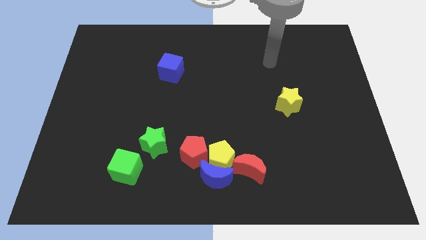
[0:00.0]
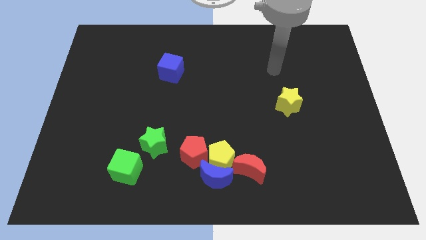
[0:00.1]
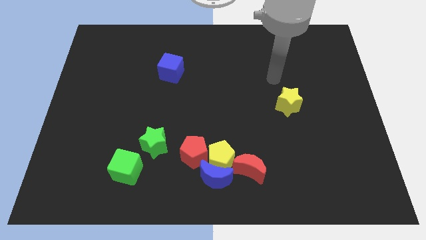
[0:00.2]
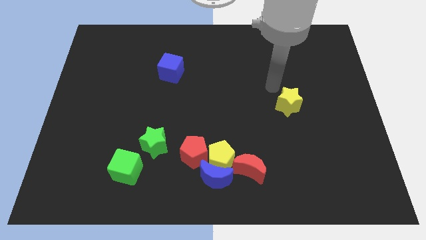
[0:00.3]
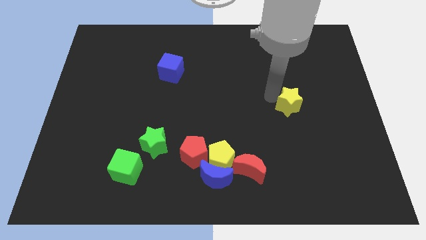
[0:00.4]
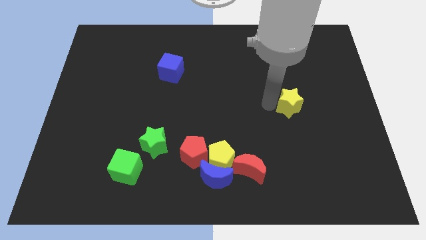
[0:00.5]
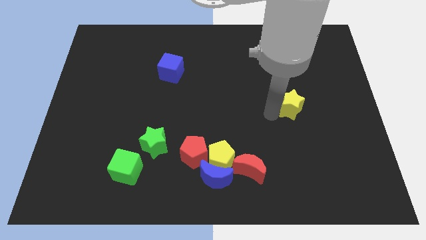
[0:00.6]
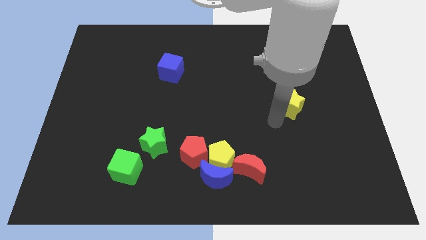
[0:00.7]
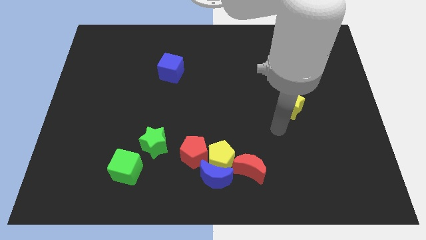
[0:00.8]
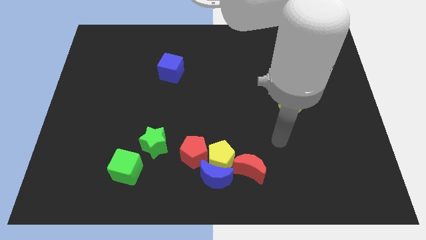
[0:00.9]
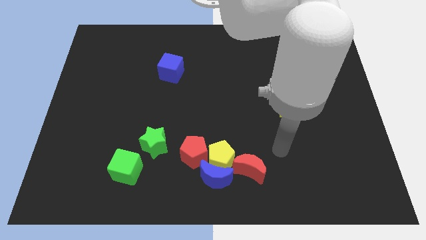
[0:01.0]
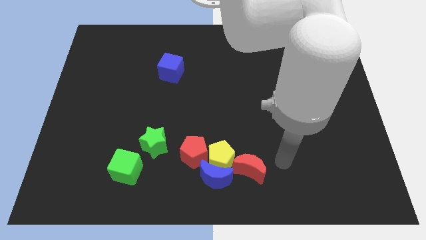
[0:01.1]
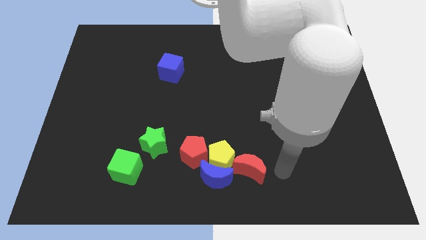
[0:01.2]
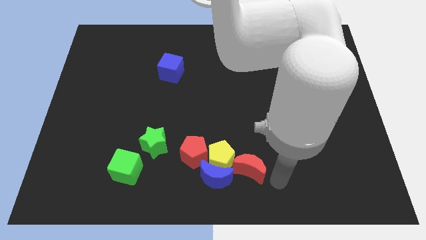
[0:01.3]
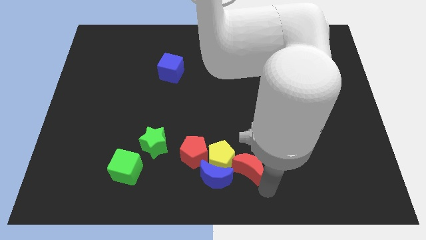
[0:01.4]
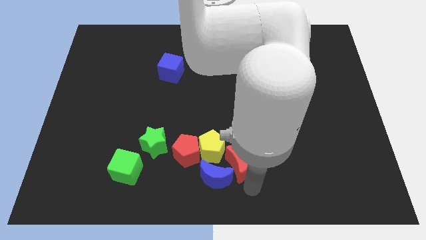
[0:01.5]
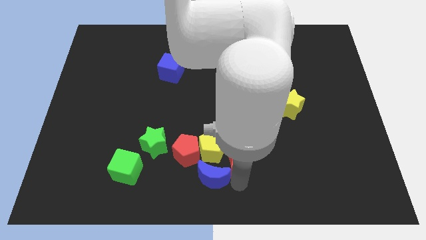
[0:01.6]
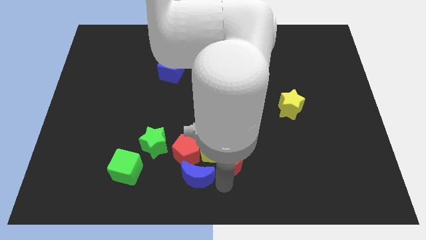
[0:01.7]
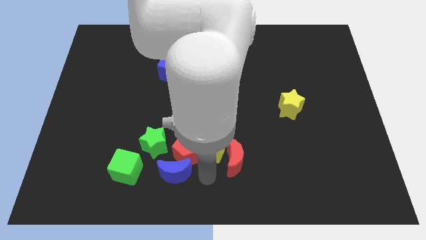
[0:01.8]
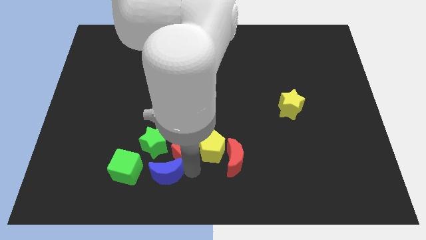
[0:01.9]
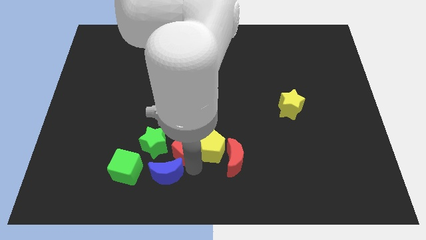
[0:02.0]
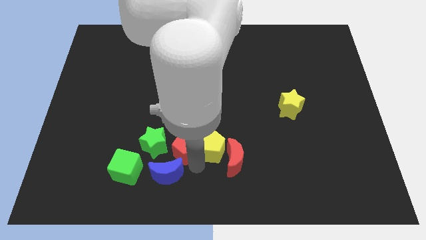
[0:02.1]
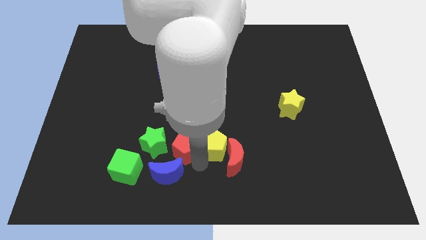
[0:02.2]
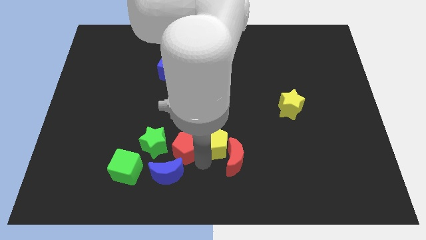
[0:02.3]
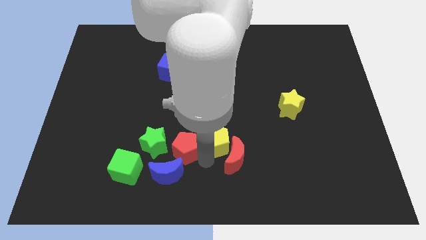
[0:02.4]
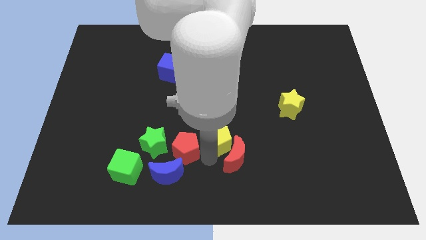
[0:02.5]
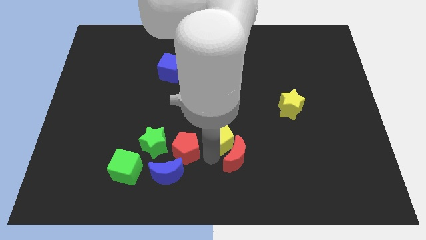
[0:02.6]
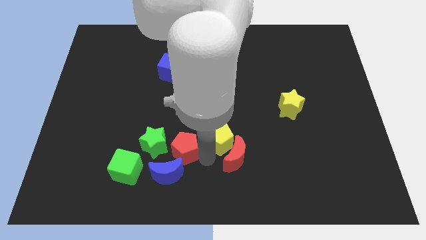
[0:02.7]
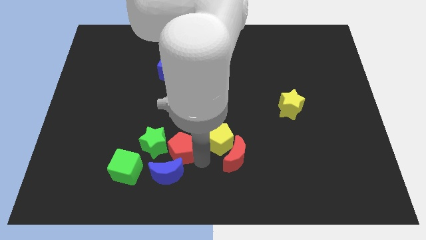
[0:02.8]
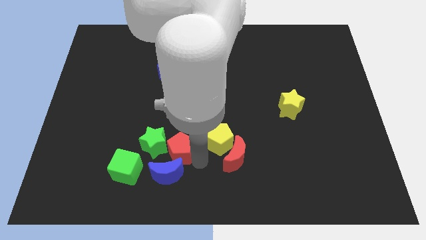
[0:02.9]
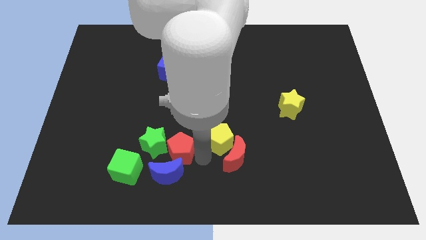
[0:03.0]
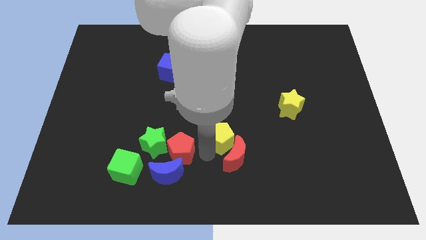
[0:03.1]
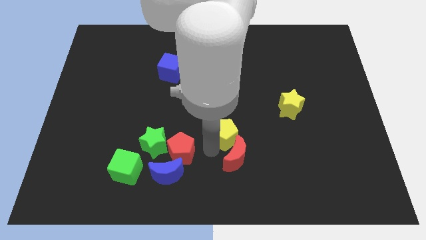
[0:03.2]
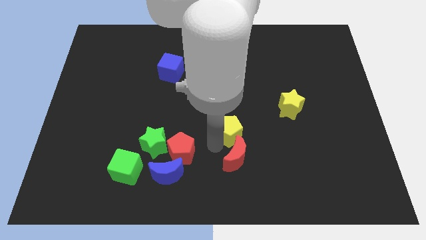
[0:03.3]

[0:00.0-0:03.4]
separate the yellow pentagon from the group of blocks

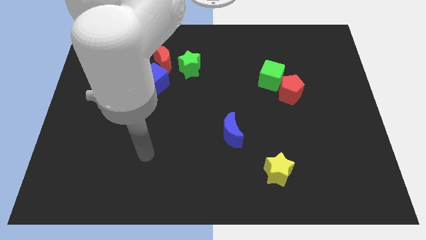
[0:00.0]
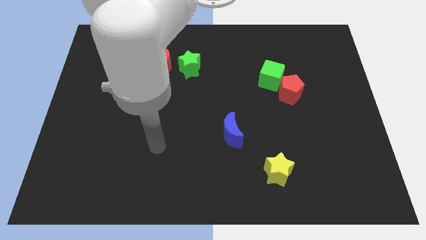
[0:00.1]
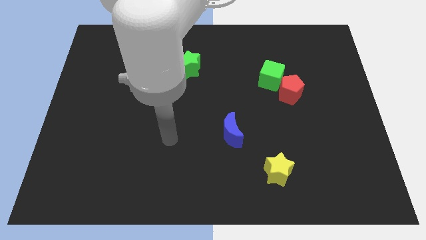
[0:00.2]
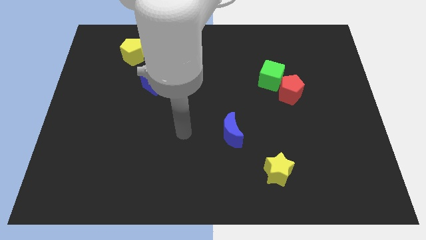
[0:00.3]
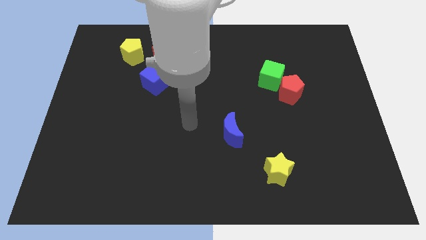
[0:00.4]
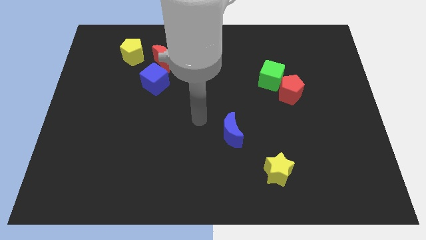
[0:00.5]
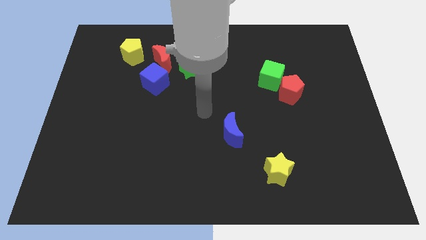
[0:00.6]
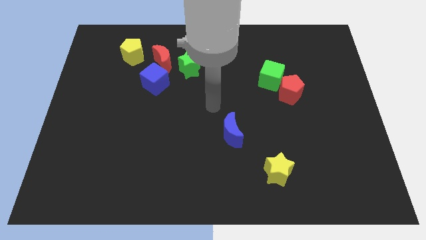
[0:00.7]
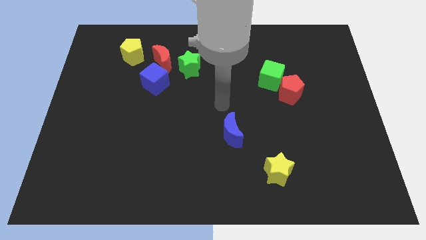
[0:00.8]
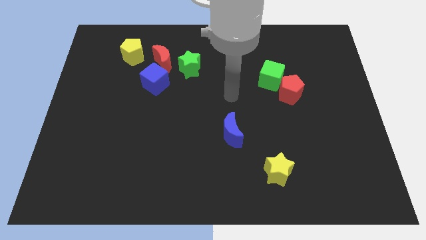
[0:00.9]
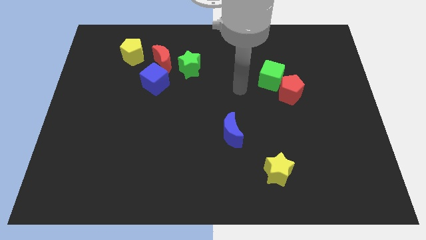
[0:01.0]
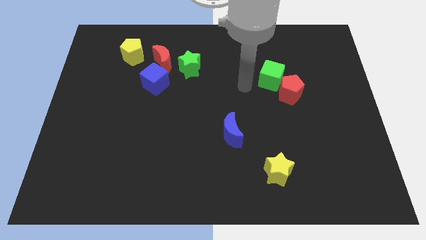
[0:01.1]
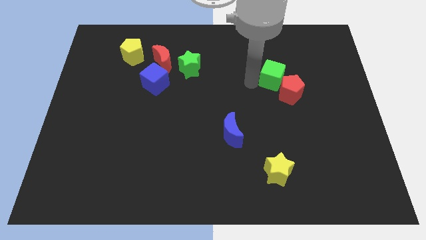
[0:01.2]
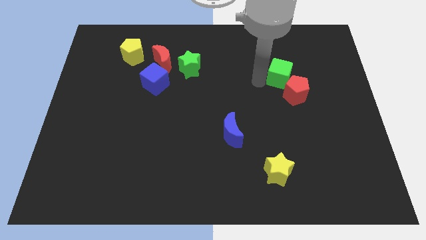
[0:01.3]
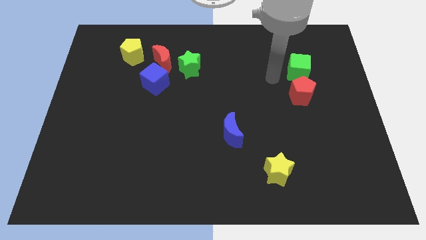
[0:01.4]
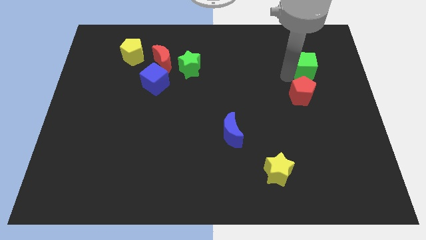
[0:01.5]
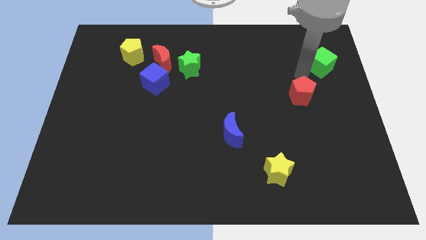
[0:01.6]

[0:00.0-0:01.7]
separate the red pentagon from the green cube

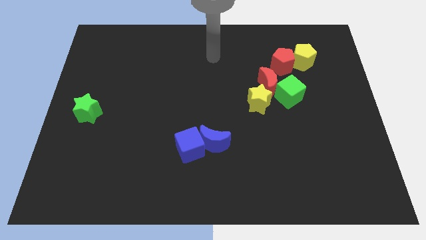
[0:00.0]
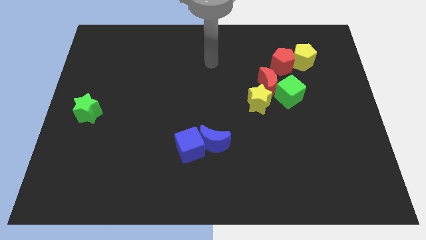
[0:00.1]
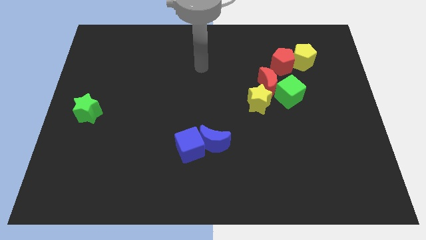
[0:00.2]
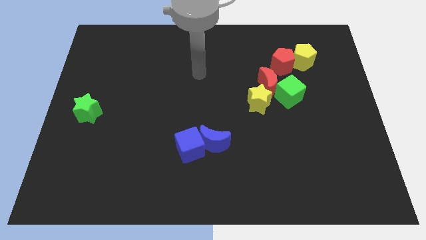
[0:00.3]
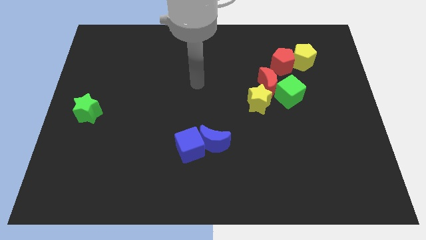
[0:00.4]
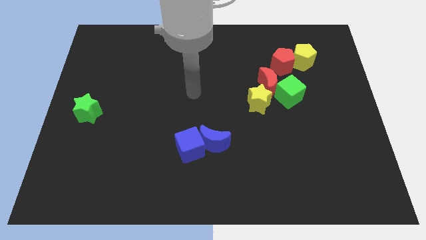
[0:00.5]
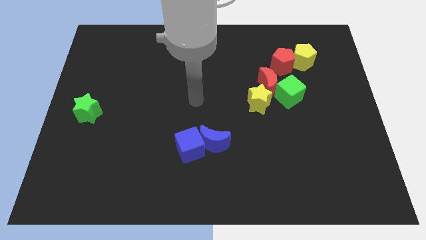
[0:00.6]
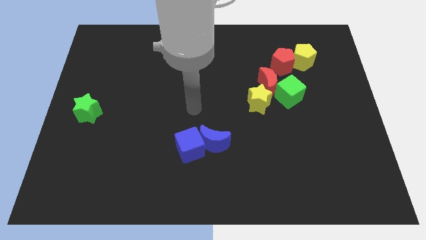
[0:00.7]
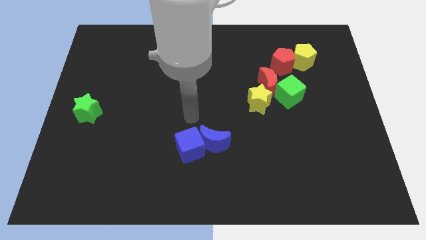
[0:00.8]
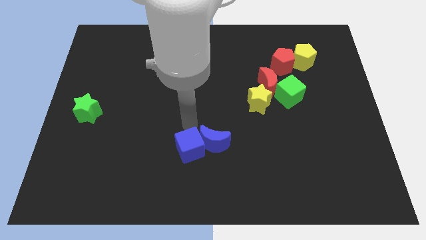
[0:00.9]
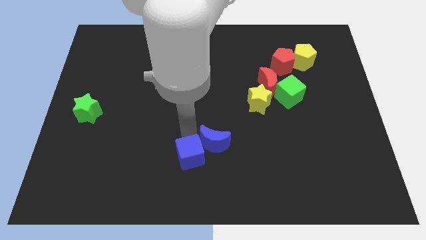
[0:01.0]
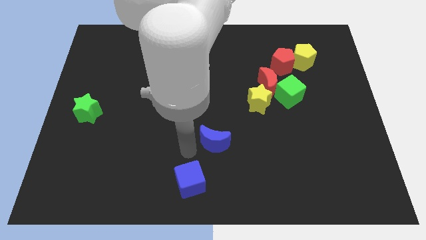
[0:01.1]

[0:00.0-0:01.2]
move the blue moon away from the blue cube

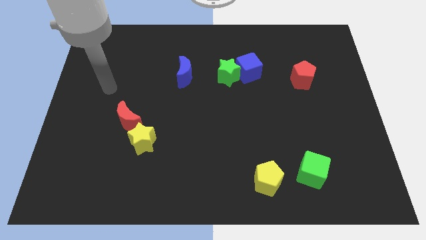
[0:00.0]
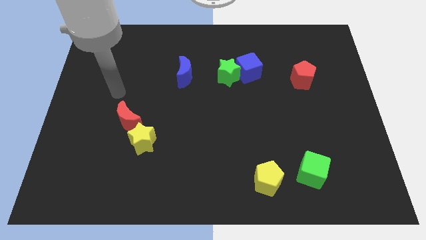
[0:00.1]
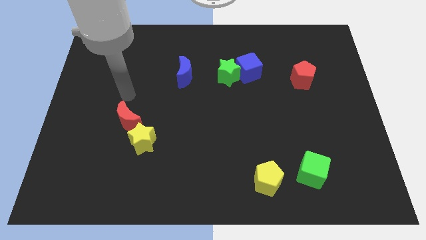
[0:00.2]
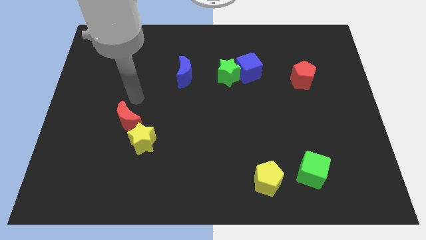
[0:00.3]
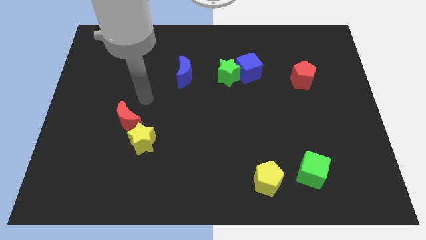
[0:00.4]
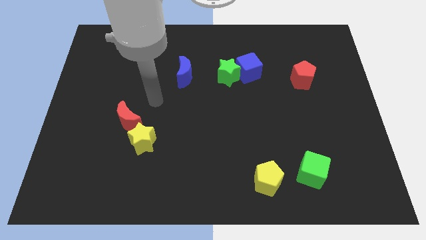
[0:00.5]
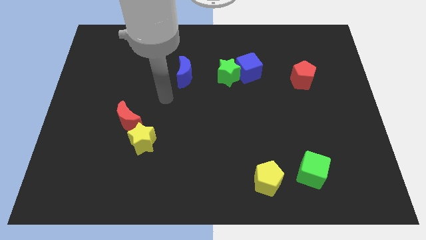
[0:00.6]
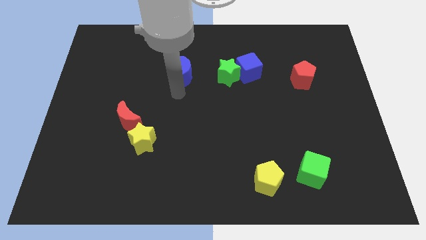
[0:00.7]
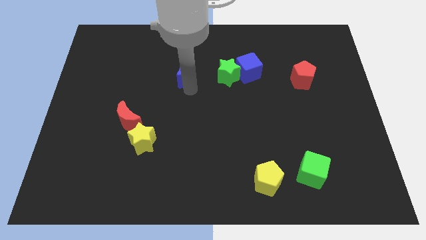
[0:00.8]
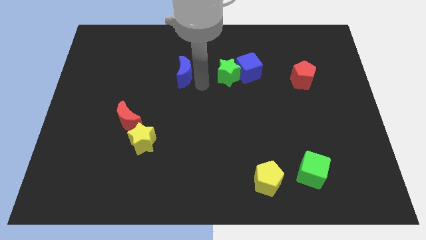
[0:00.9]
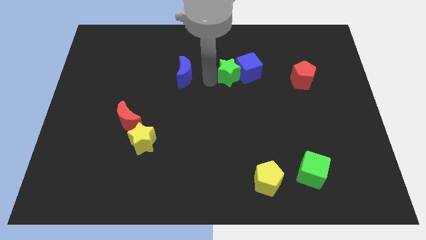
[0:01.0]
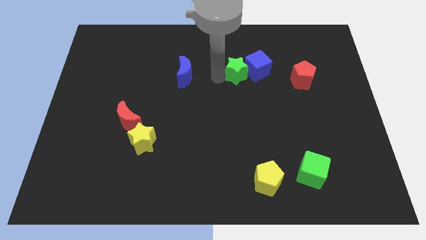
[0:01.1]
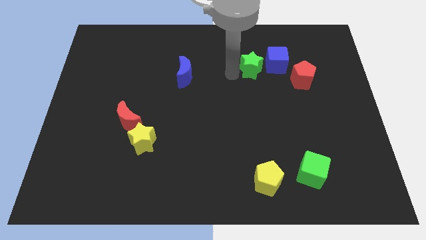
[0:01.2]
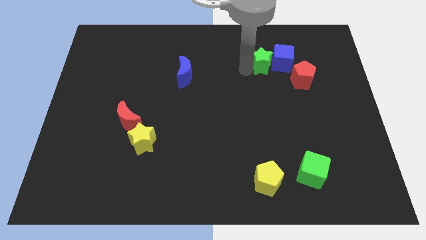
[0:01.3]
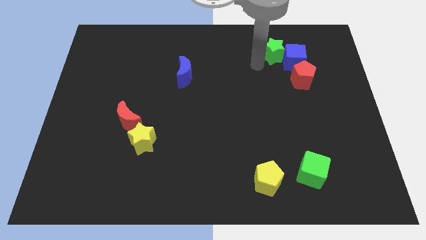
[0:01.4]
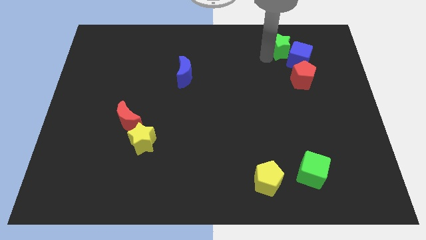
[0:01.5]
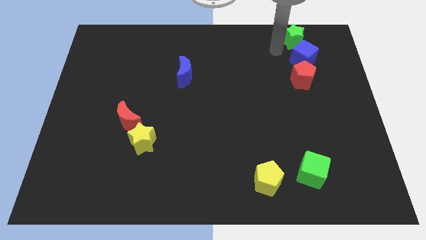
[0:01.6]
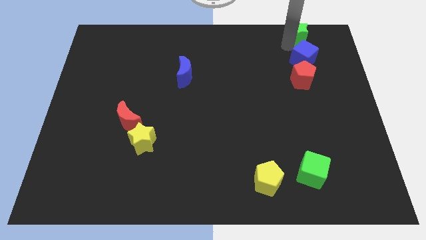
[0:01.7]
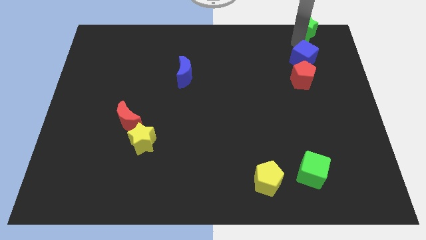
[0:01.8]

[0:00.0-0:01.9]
move the blue cube away from the green star

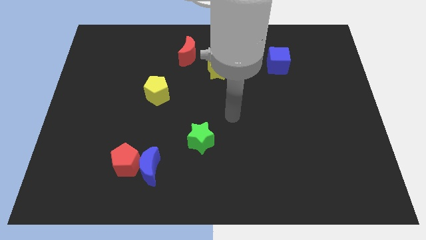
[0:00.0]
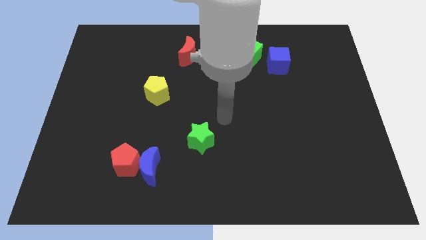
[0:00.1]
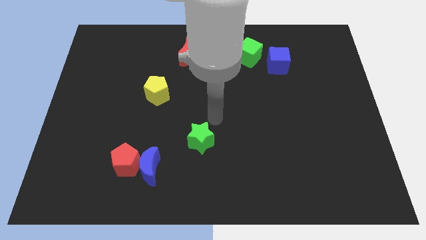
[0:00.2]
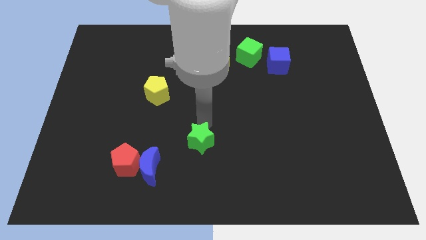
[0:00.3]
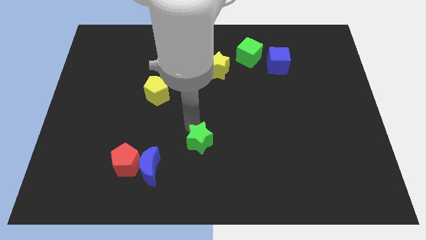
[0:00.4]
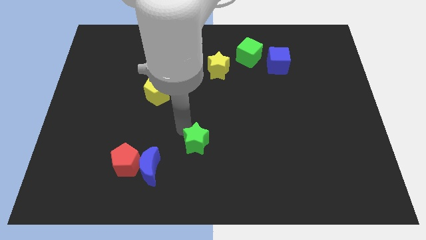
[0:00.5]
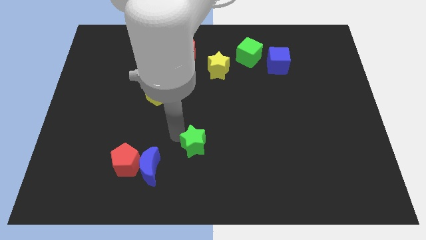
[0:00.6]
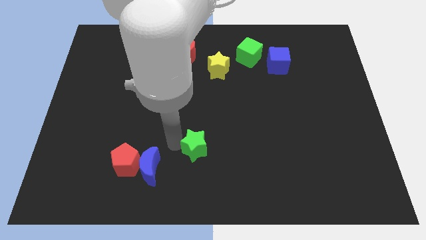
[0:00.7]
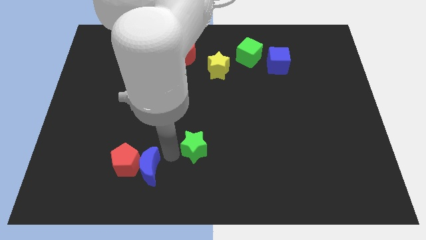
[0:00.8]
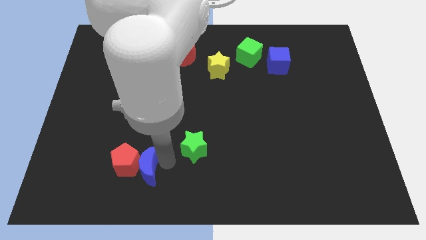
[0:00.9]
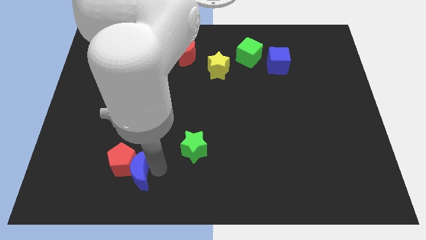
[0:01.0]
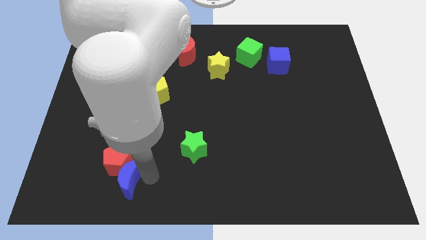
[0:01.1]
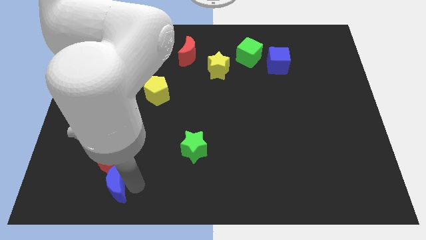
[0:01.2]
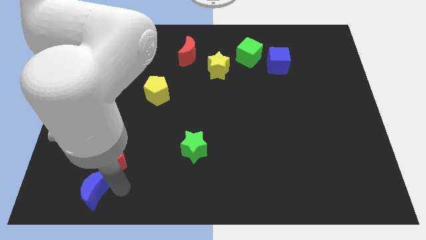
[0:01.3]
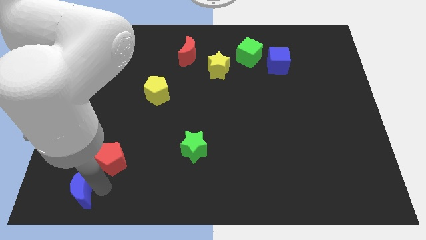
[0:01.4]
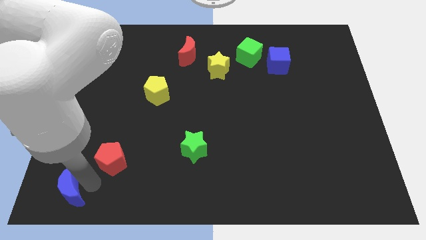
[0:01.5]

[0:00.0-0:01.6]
separate the red pentagon from the blue moon
